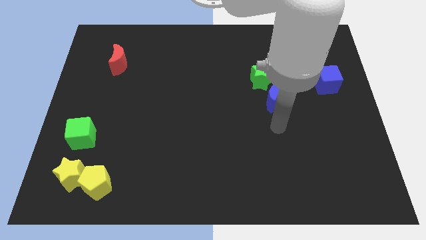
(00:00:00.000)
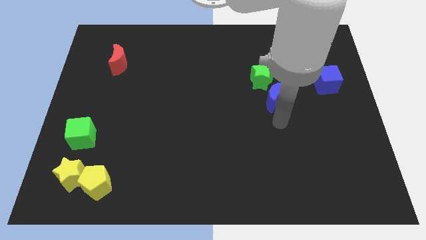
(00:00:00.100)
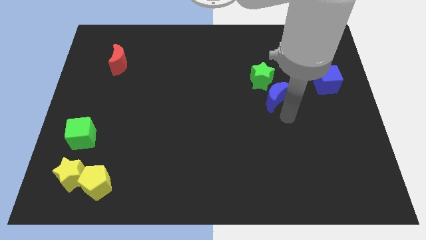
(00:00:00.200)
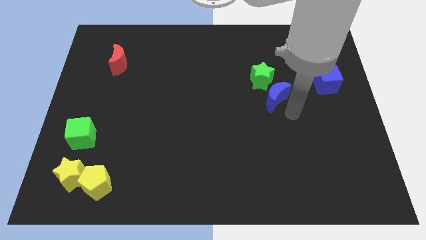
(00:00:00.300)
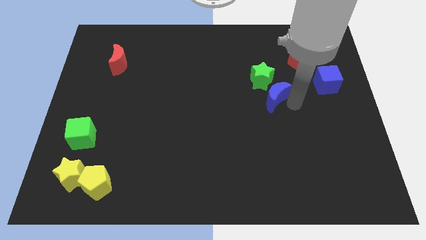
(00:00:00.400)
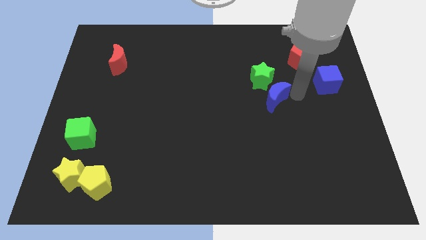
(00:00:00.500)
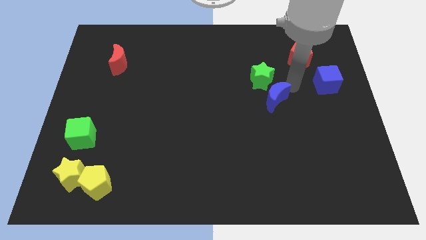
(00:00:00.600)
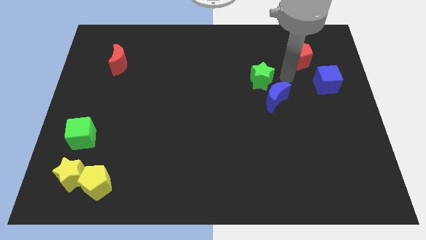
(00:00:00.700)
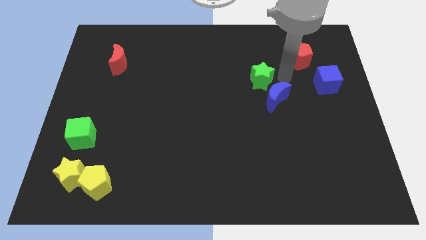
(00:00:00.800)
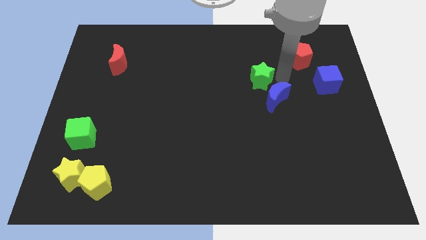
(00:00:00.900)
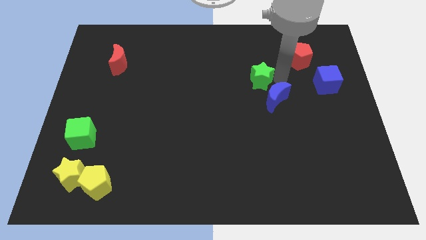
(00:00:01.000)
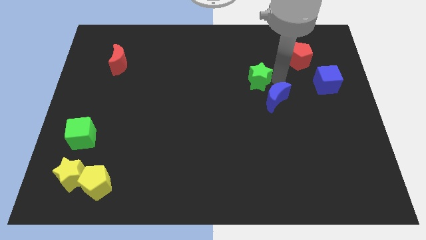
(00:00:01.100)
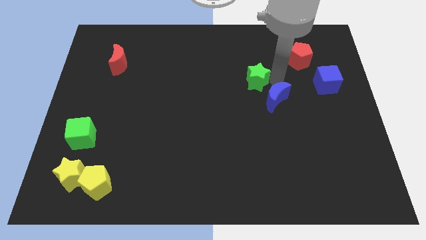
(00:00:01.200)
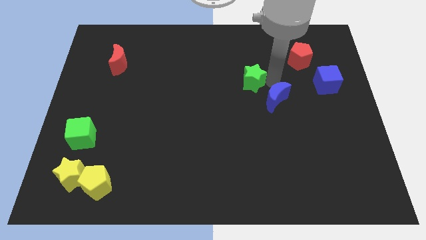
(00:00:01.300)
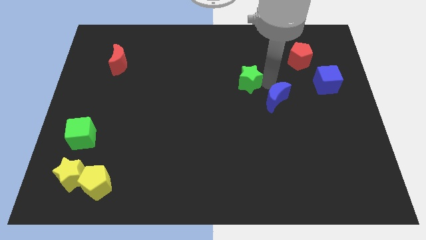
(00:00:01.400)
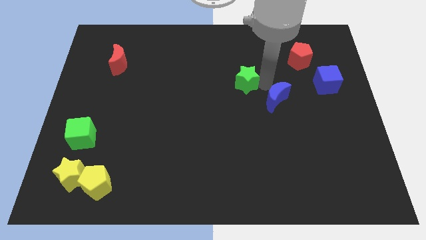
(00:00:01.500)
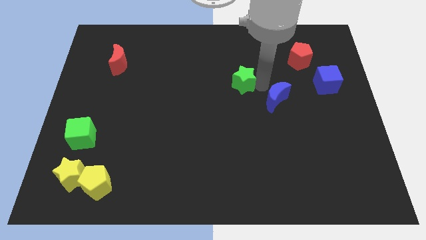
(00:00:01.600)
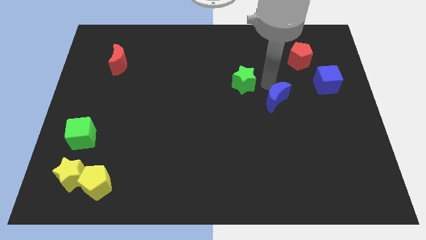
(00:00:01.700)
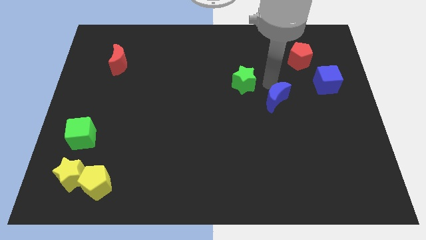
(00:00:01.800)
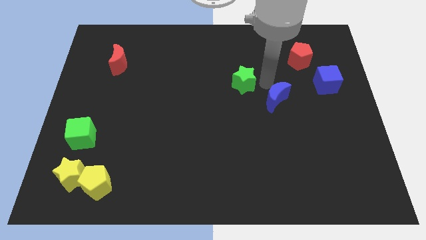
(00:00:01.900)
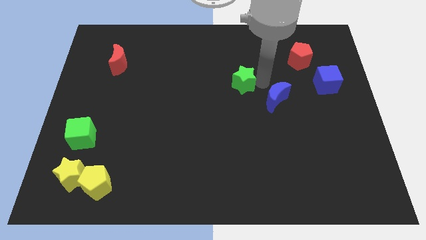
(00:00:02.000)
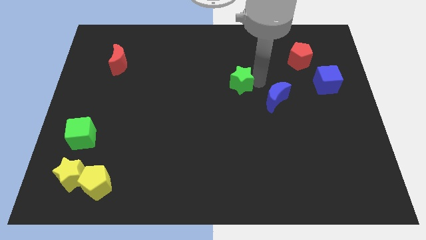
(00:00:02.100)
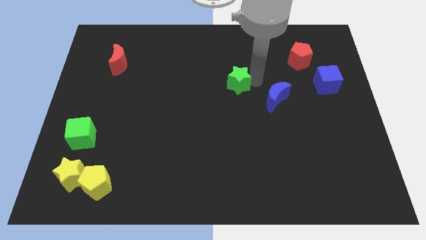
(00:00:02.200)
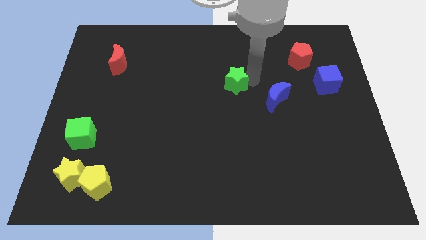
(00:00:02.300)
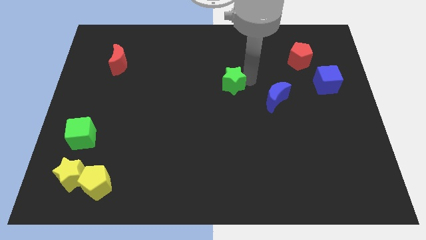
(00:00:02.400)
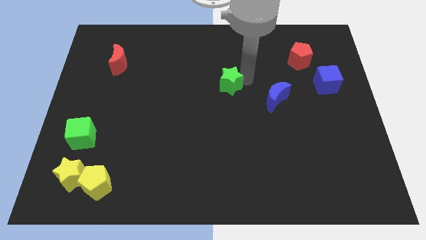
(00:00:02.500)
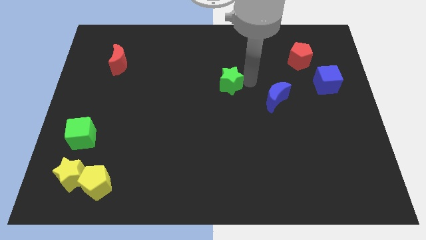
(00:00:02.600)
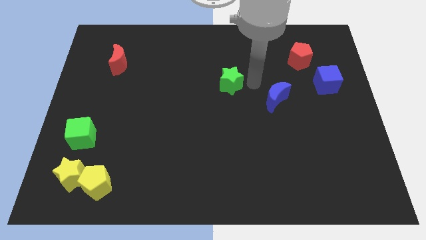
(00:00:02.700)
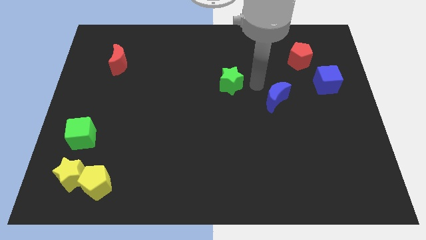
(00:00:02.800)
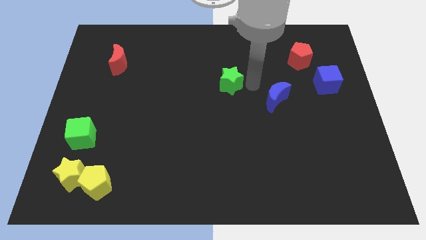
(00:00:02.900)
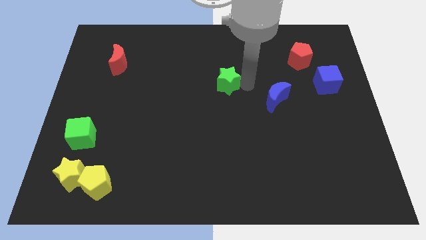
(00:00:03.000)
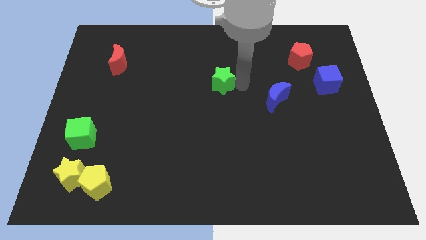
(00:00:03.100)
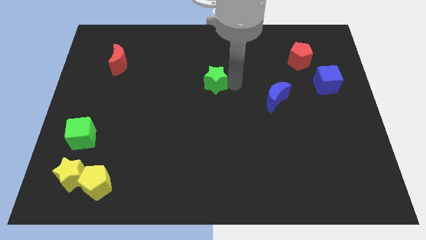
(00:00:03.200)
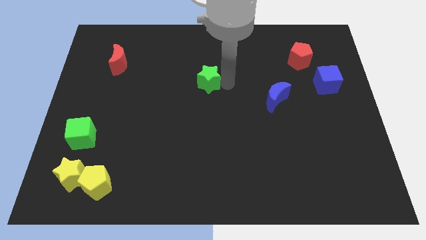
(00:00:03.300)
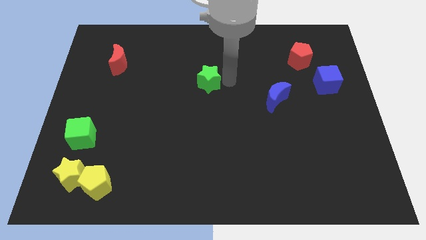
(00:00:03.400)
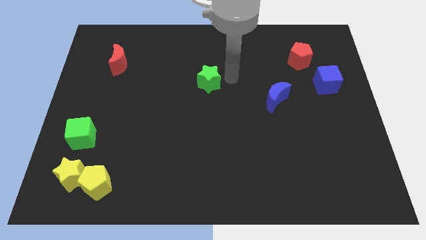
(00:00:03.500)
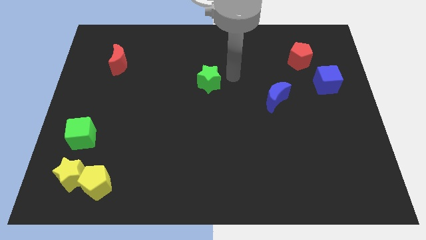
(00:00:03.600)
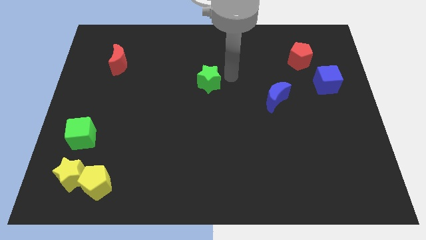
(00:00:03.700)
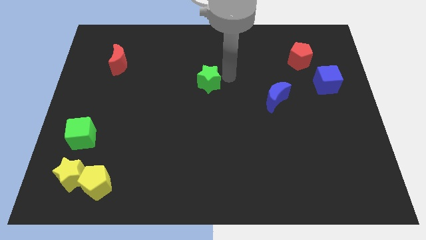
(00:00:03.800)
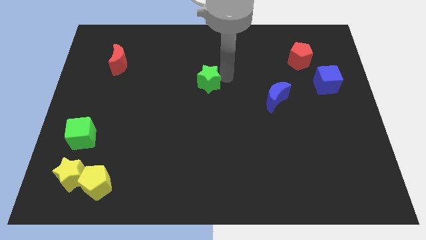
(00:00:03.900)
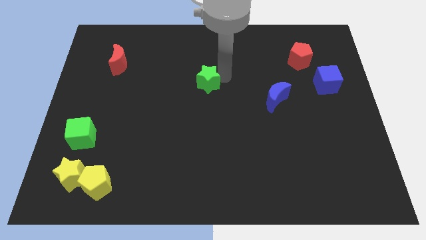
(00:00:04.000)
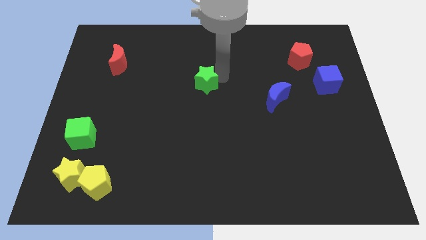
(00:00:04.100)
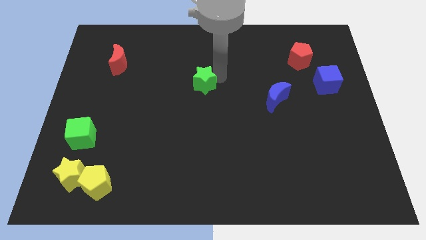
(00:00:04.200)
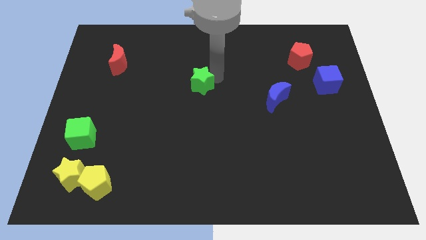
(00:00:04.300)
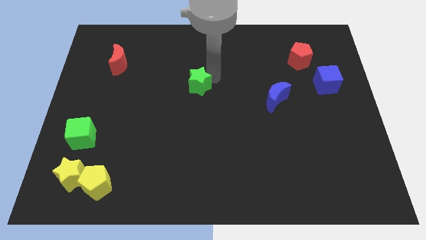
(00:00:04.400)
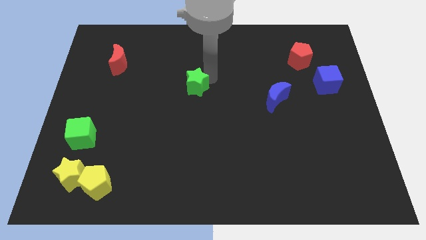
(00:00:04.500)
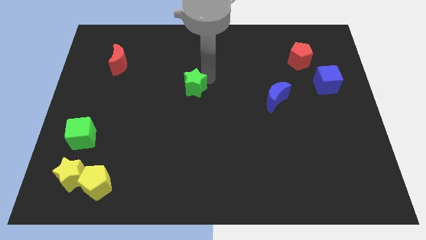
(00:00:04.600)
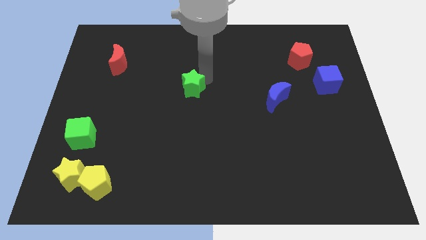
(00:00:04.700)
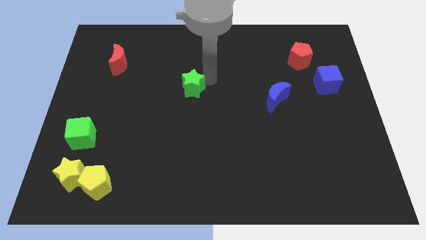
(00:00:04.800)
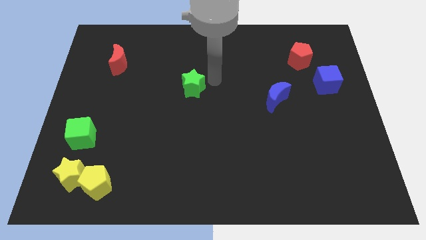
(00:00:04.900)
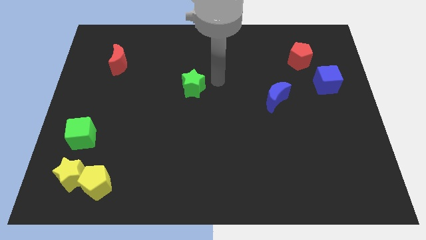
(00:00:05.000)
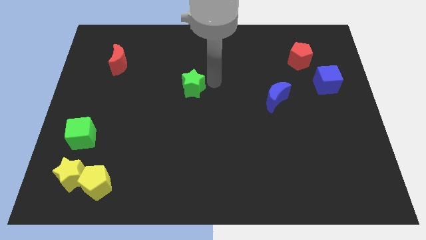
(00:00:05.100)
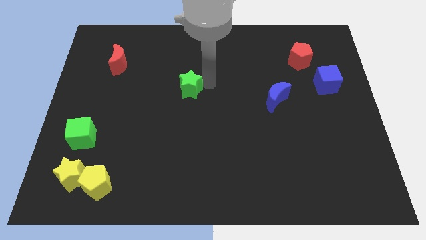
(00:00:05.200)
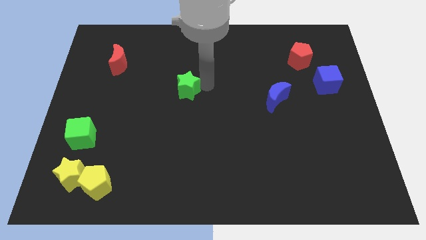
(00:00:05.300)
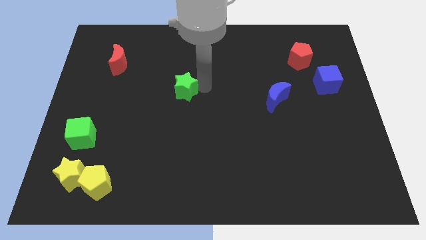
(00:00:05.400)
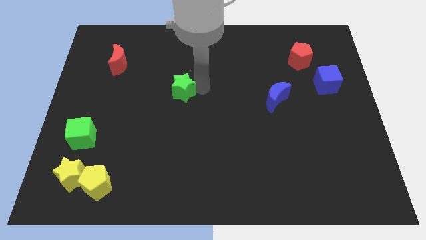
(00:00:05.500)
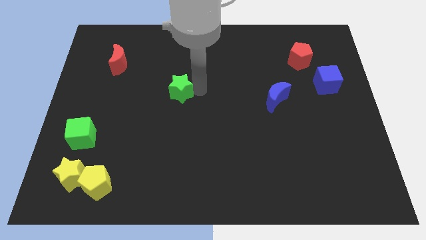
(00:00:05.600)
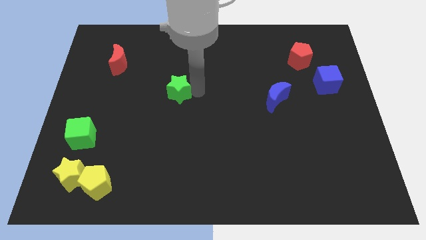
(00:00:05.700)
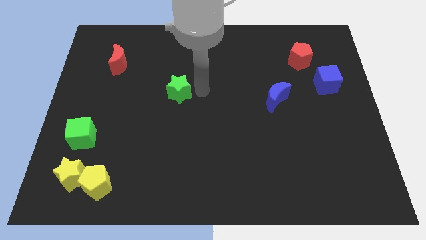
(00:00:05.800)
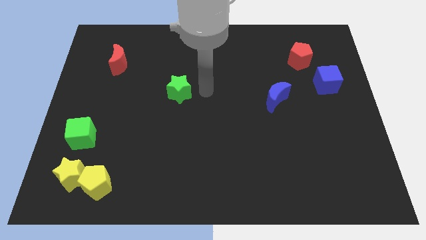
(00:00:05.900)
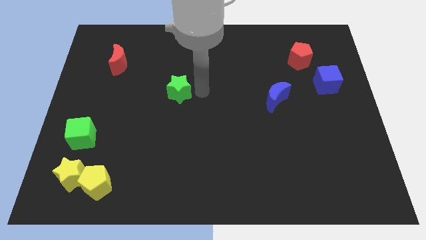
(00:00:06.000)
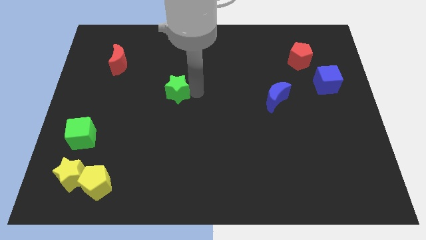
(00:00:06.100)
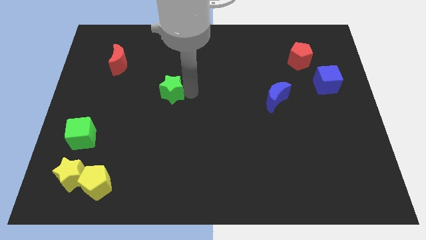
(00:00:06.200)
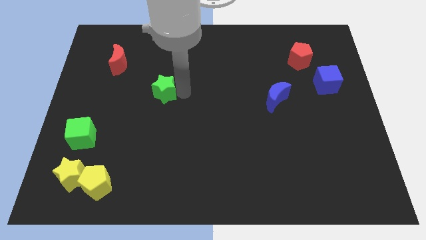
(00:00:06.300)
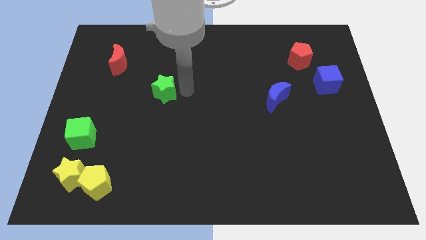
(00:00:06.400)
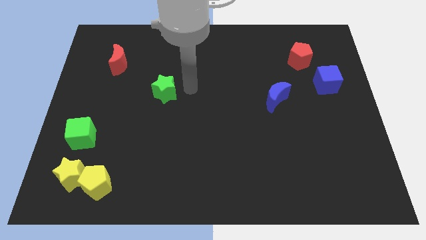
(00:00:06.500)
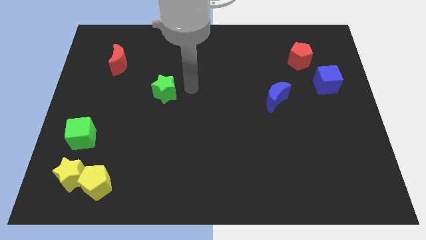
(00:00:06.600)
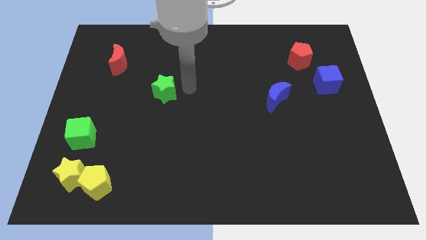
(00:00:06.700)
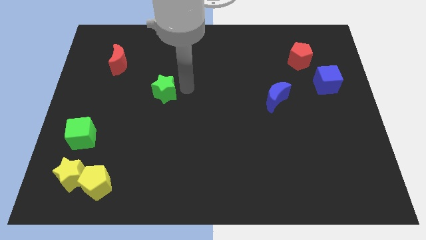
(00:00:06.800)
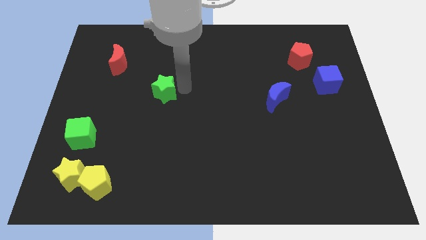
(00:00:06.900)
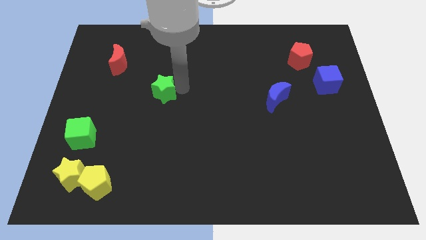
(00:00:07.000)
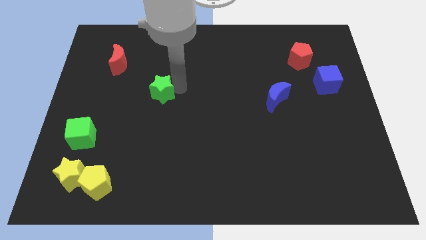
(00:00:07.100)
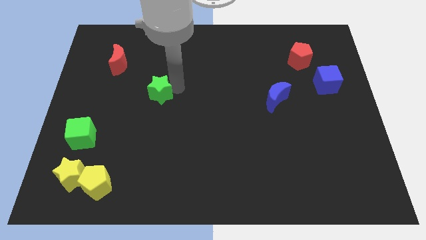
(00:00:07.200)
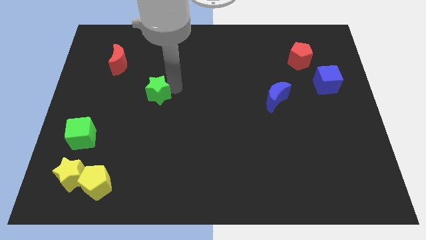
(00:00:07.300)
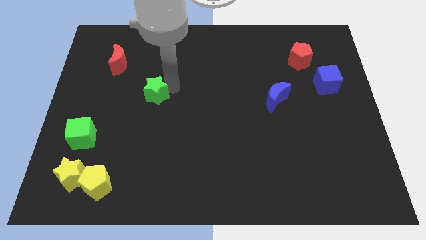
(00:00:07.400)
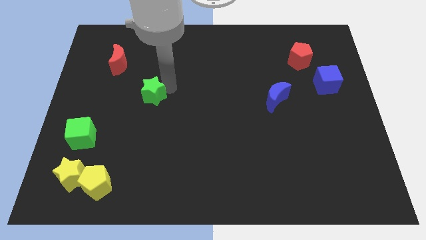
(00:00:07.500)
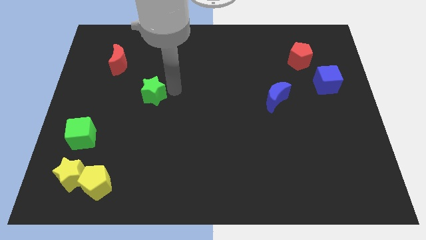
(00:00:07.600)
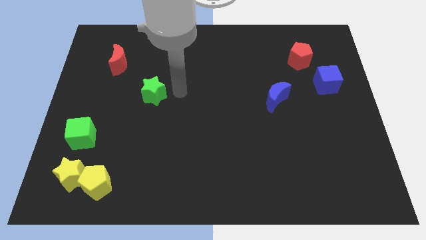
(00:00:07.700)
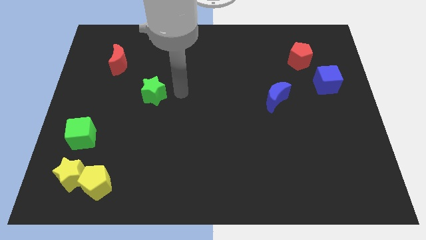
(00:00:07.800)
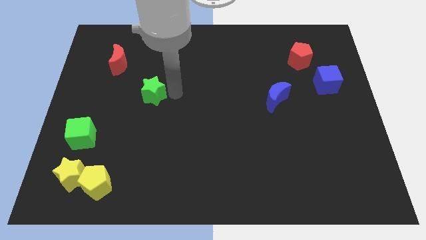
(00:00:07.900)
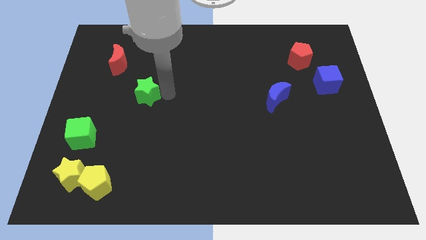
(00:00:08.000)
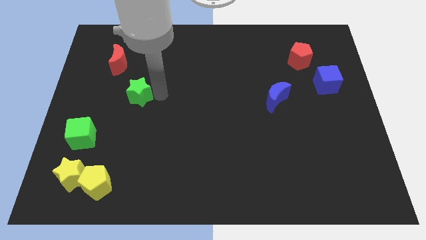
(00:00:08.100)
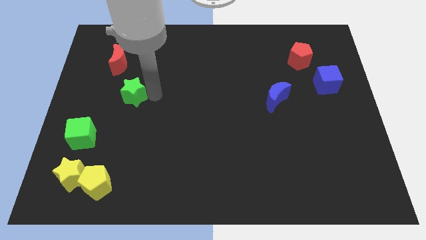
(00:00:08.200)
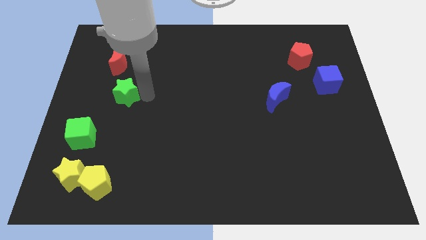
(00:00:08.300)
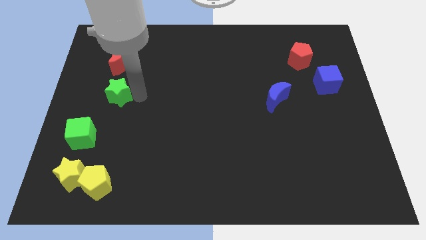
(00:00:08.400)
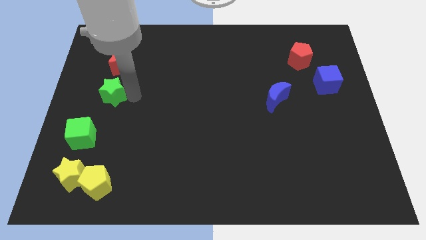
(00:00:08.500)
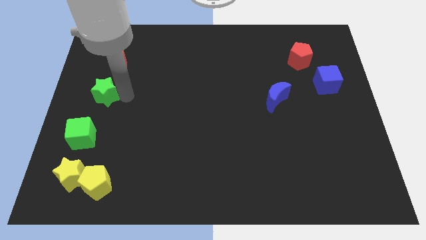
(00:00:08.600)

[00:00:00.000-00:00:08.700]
push the green star to the left side
